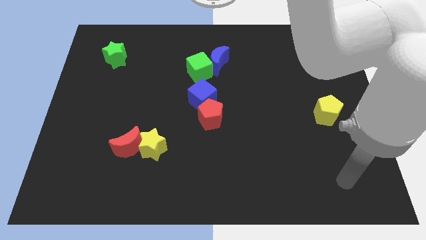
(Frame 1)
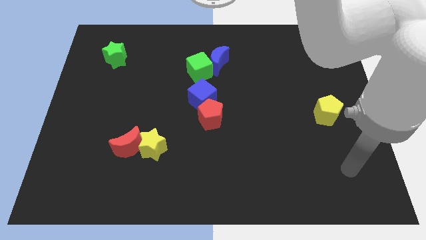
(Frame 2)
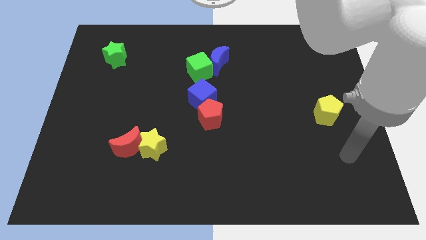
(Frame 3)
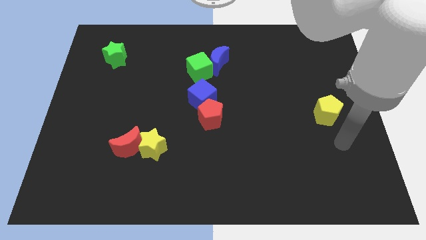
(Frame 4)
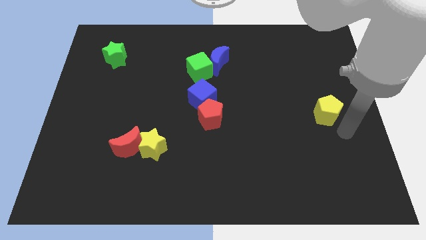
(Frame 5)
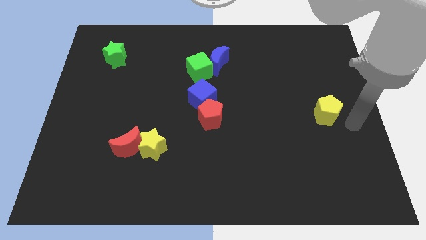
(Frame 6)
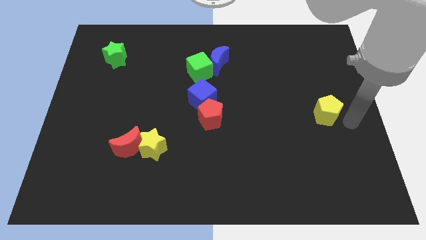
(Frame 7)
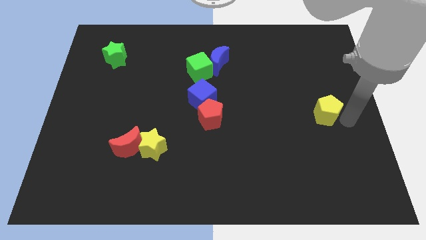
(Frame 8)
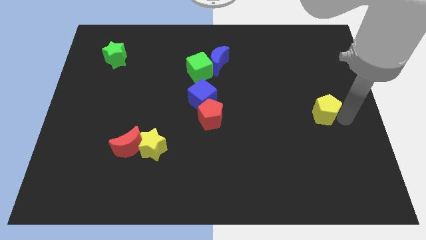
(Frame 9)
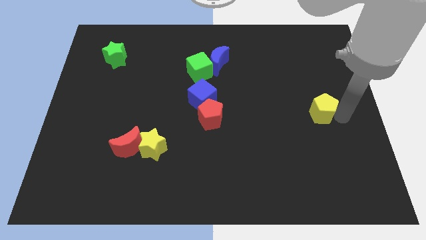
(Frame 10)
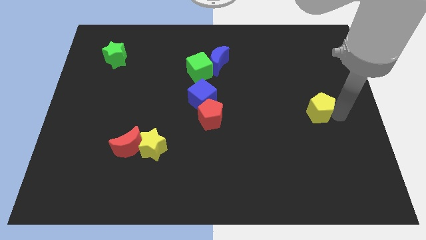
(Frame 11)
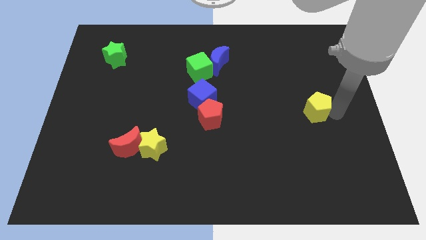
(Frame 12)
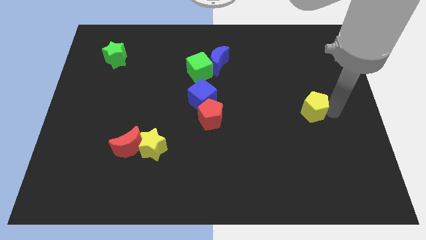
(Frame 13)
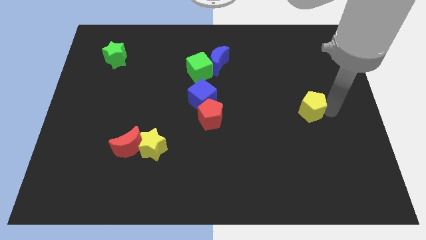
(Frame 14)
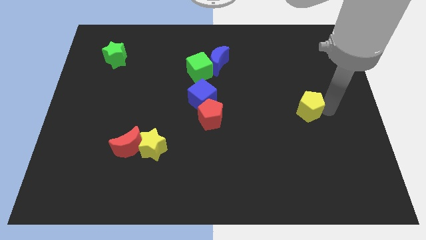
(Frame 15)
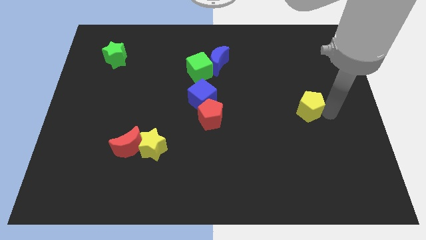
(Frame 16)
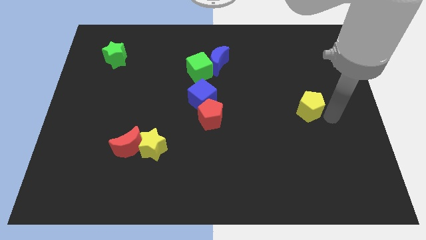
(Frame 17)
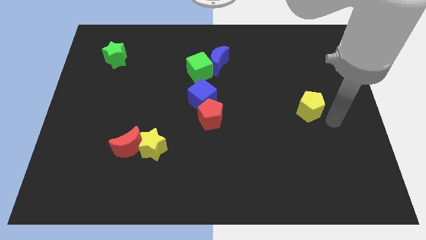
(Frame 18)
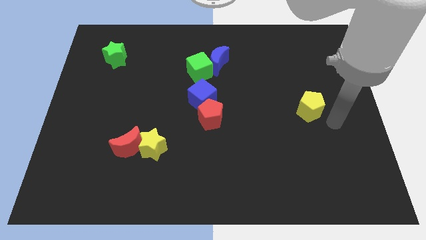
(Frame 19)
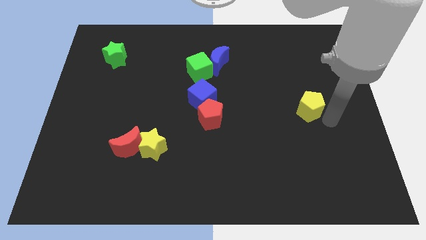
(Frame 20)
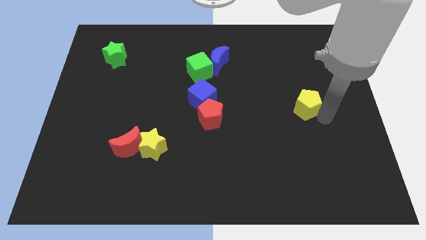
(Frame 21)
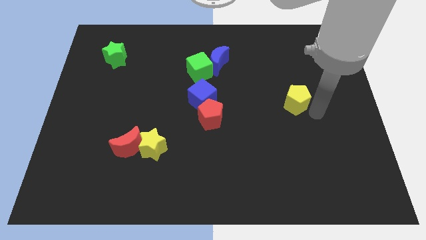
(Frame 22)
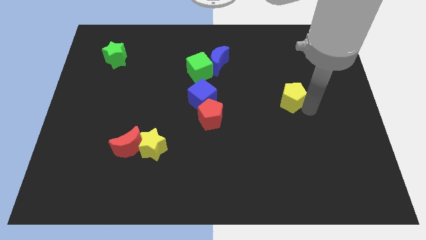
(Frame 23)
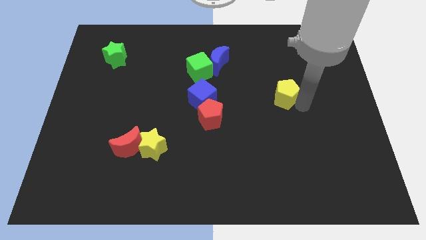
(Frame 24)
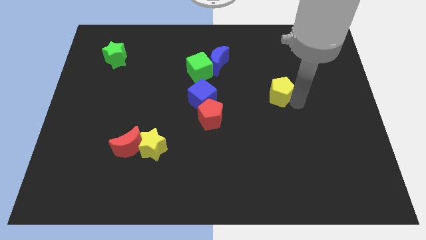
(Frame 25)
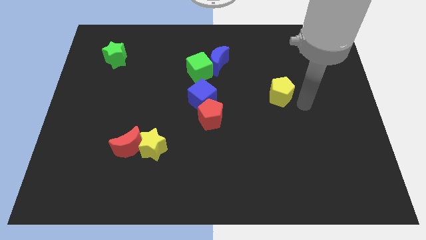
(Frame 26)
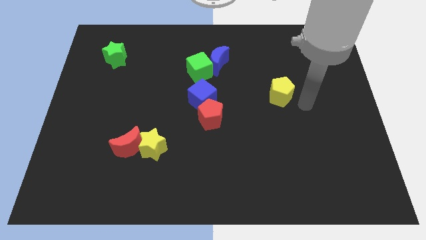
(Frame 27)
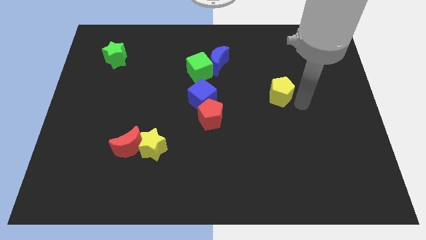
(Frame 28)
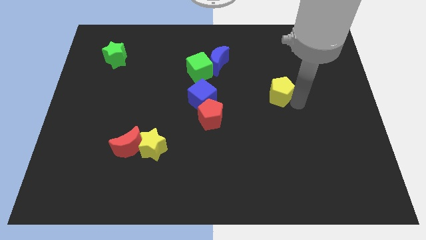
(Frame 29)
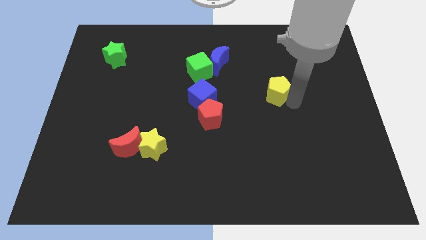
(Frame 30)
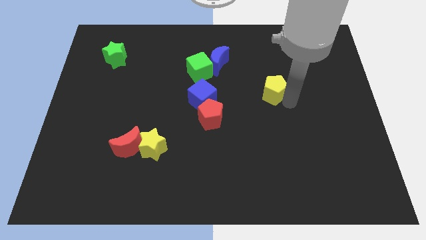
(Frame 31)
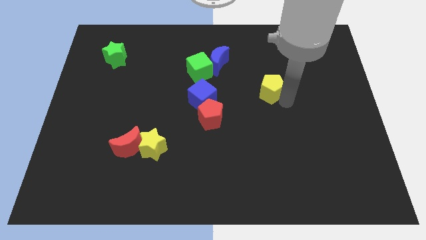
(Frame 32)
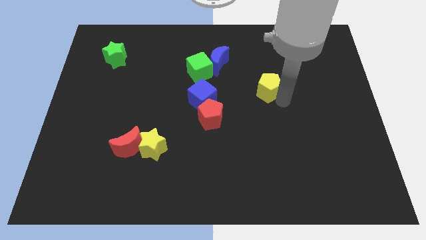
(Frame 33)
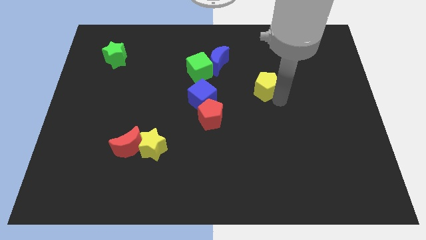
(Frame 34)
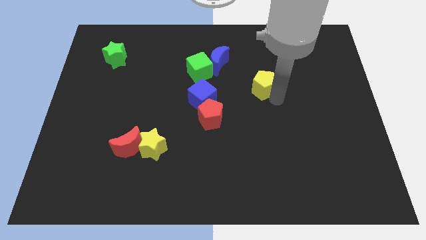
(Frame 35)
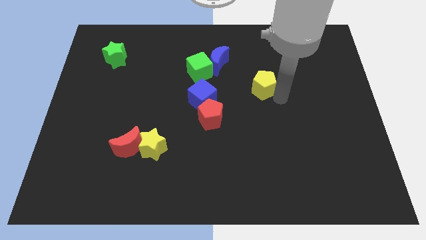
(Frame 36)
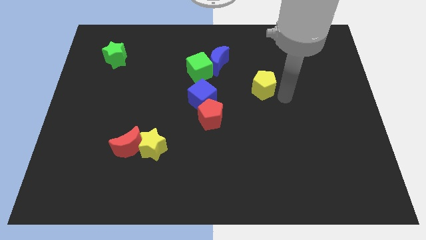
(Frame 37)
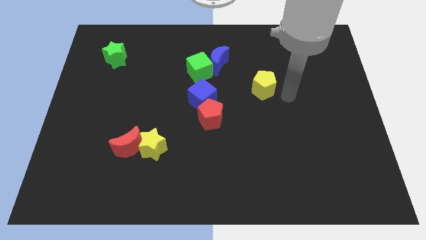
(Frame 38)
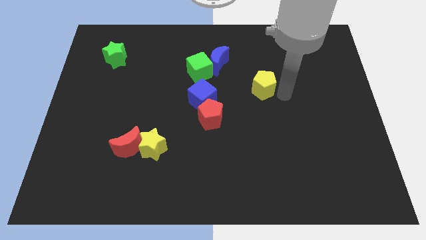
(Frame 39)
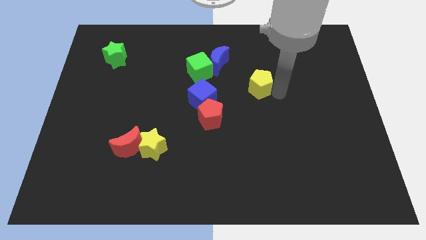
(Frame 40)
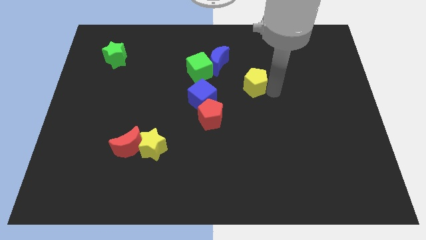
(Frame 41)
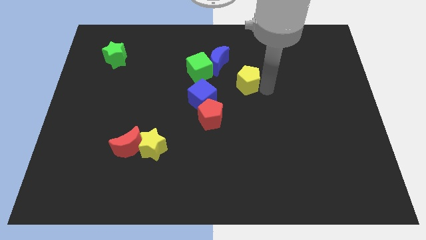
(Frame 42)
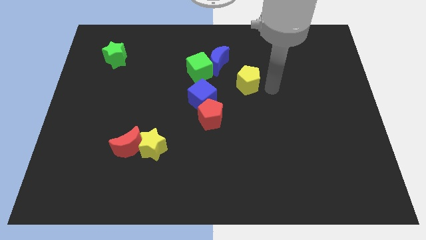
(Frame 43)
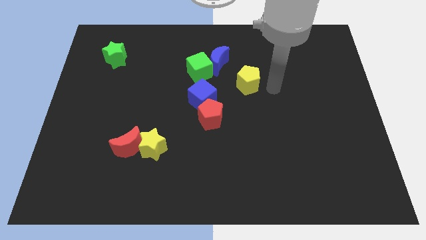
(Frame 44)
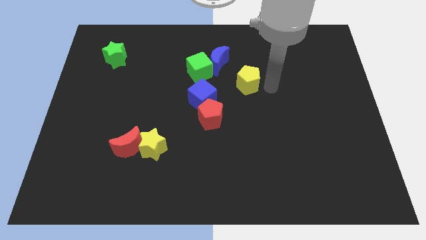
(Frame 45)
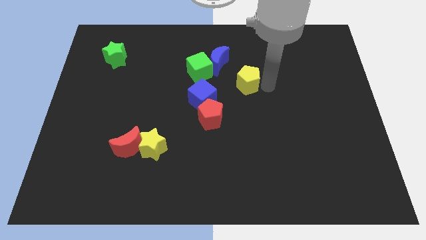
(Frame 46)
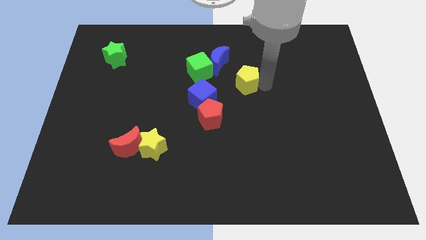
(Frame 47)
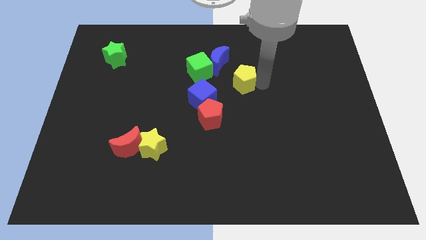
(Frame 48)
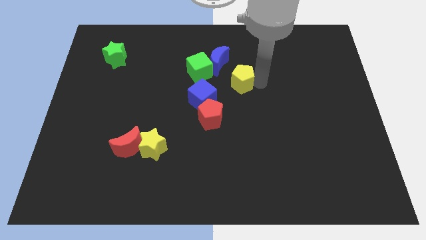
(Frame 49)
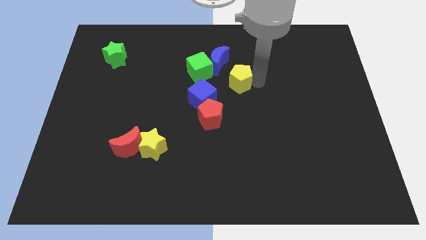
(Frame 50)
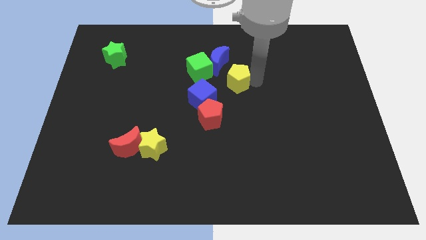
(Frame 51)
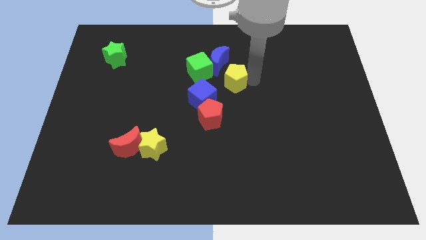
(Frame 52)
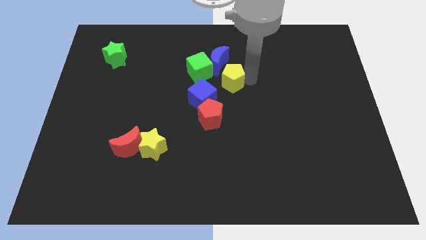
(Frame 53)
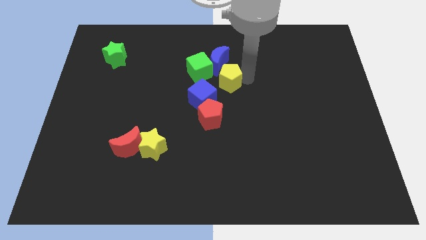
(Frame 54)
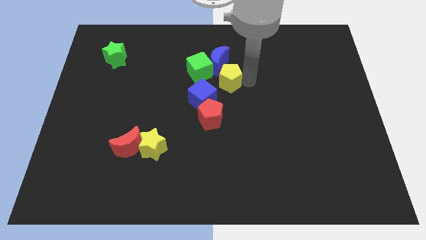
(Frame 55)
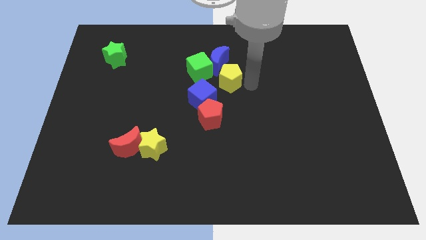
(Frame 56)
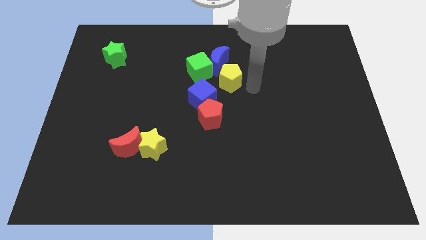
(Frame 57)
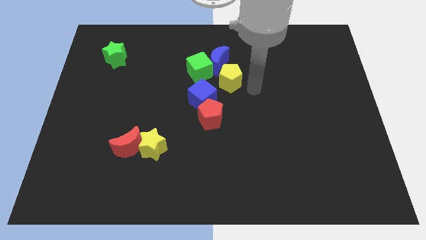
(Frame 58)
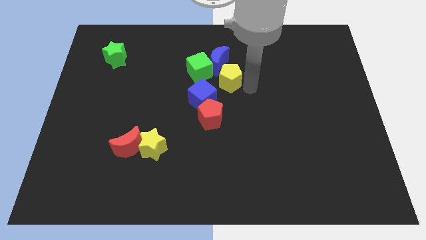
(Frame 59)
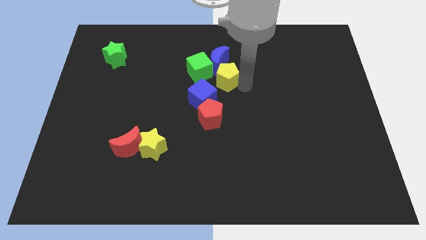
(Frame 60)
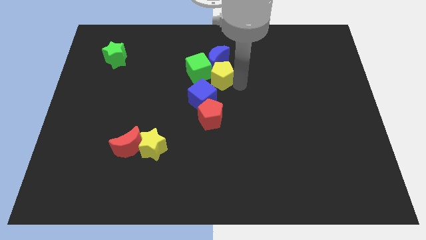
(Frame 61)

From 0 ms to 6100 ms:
put the yellow pentagon to the green cube
